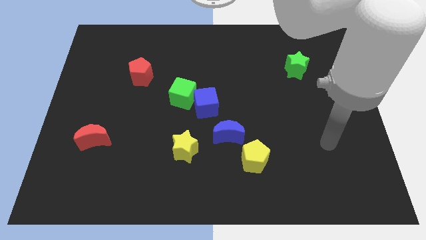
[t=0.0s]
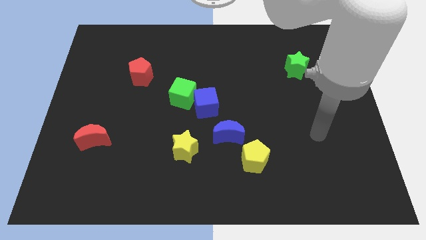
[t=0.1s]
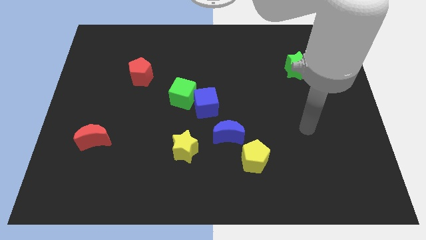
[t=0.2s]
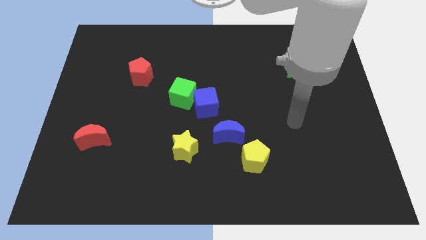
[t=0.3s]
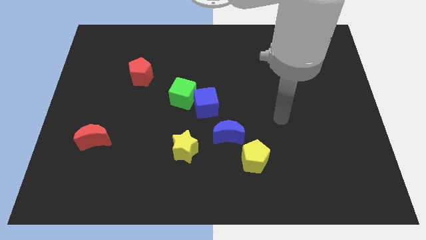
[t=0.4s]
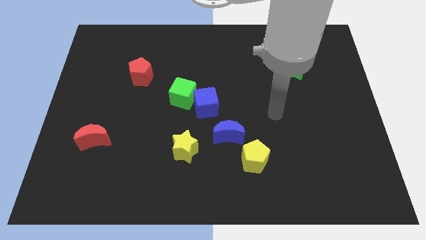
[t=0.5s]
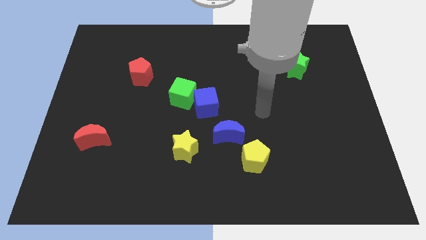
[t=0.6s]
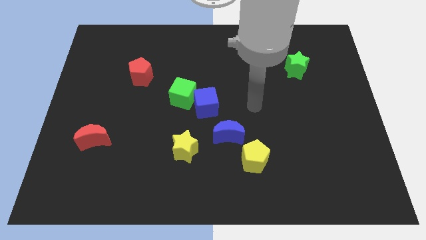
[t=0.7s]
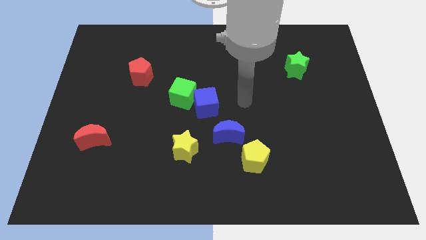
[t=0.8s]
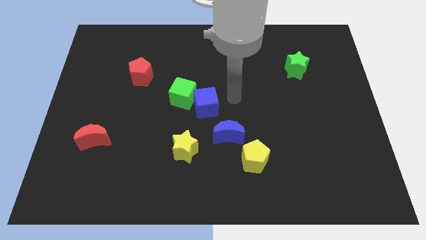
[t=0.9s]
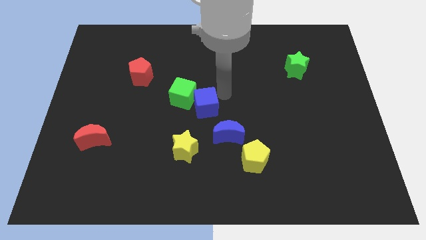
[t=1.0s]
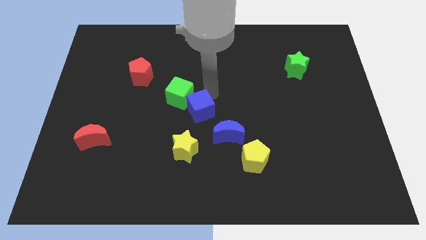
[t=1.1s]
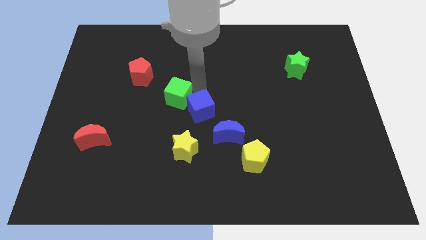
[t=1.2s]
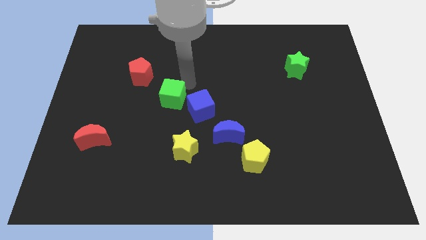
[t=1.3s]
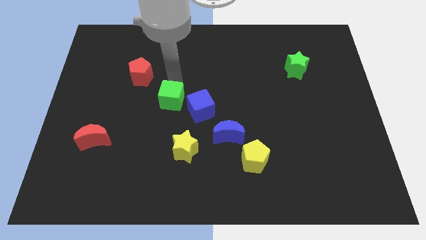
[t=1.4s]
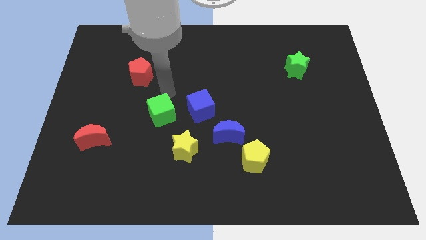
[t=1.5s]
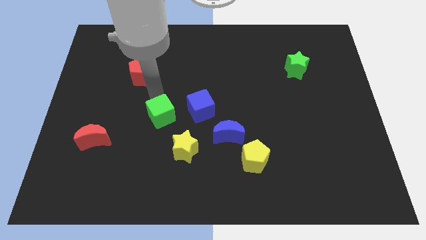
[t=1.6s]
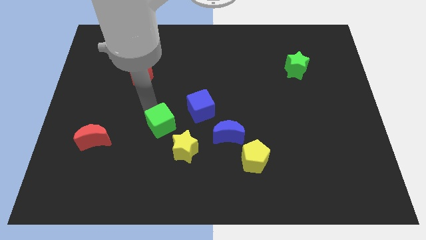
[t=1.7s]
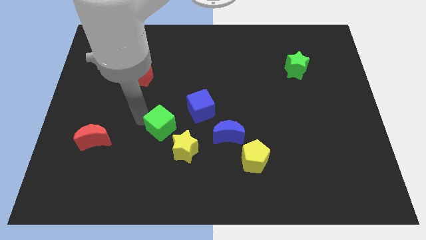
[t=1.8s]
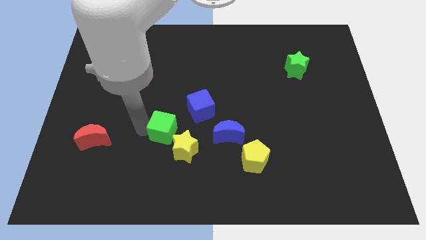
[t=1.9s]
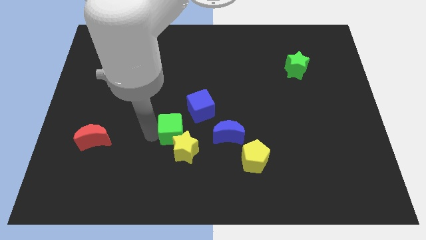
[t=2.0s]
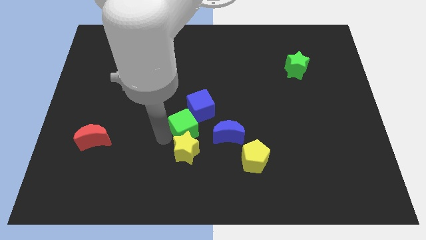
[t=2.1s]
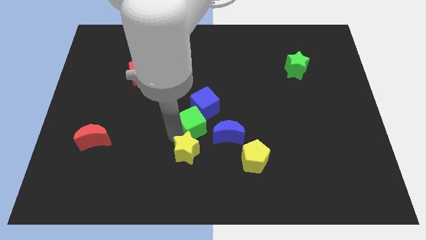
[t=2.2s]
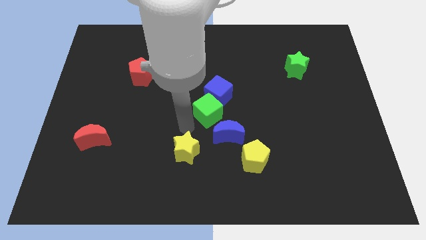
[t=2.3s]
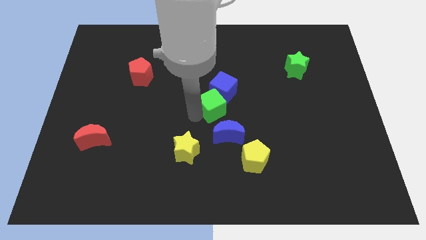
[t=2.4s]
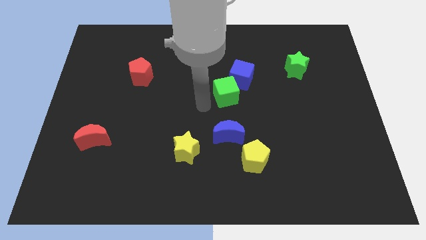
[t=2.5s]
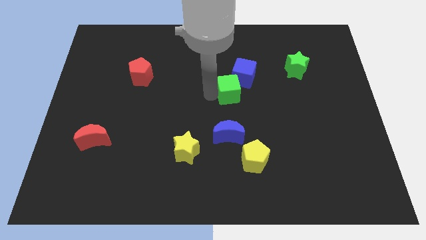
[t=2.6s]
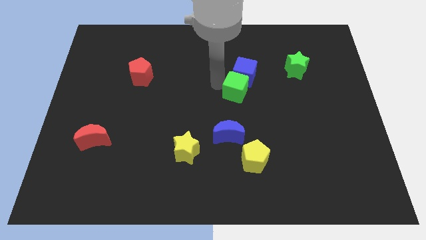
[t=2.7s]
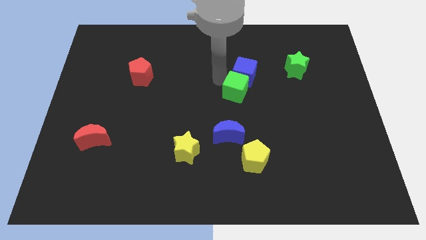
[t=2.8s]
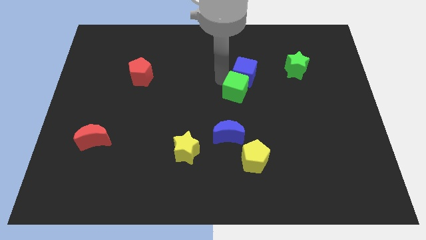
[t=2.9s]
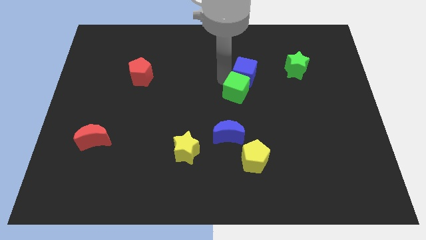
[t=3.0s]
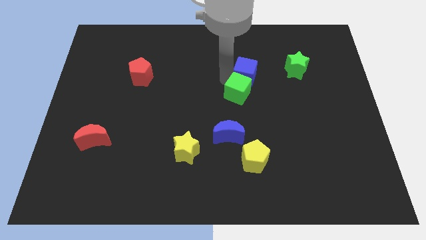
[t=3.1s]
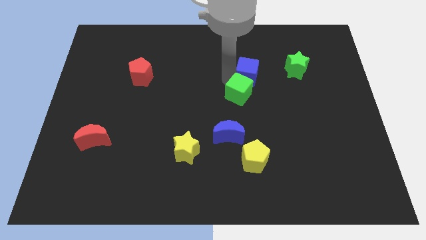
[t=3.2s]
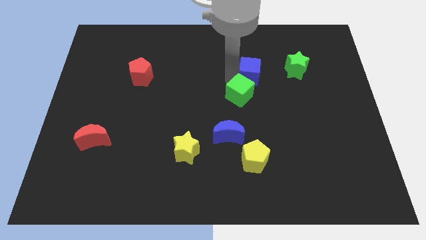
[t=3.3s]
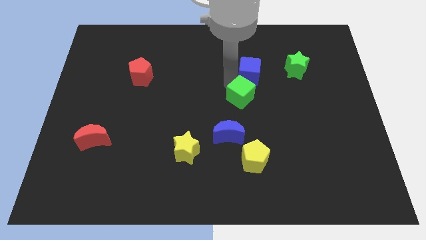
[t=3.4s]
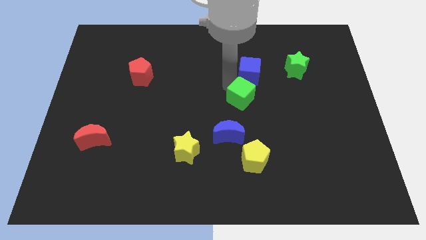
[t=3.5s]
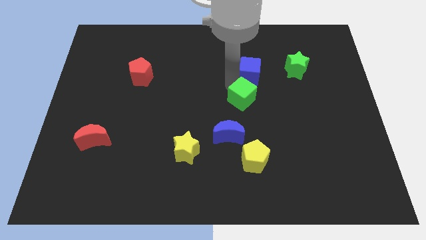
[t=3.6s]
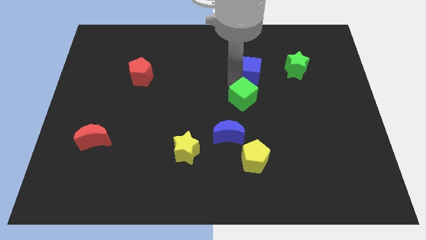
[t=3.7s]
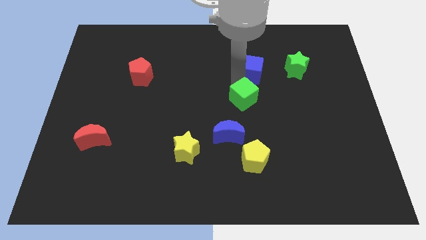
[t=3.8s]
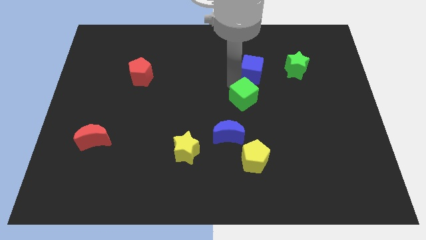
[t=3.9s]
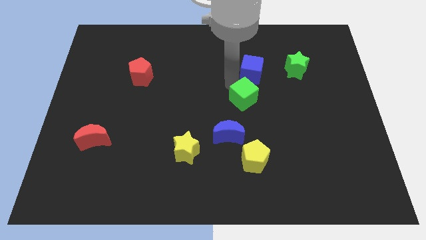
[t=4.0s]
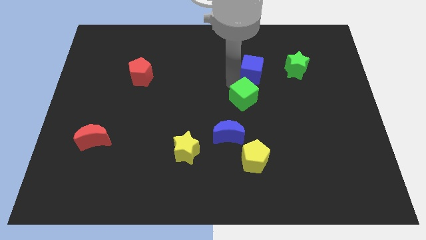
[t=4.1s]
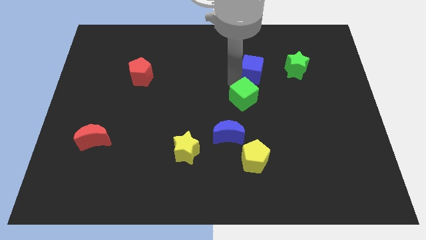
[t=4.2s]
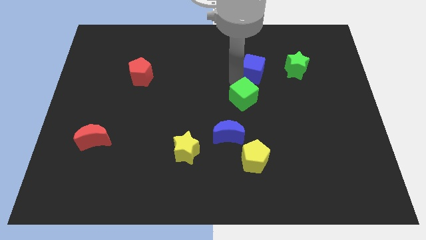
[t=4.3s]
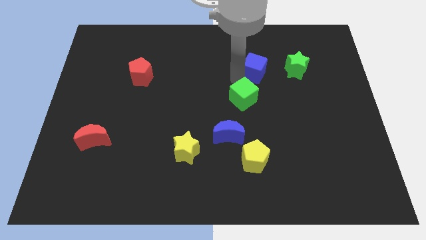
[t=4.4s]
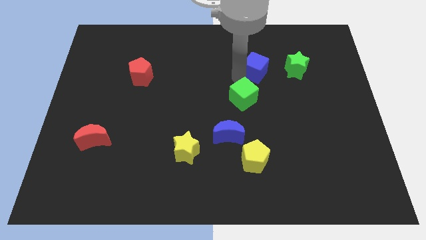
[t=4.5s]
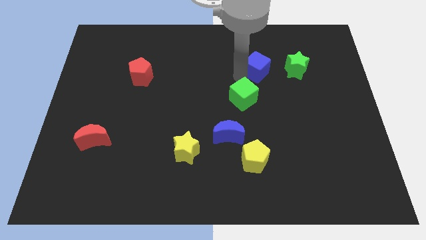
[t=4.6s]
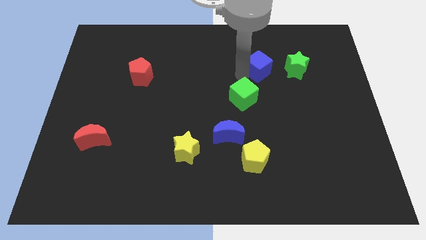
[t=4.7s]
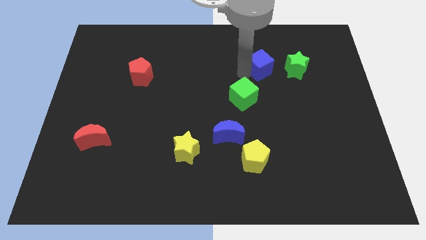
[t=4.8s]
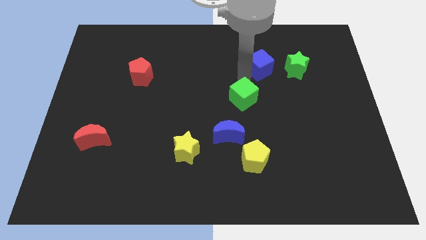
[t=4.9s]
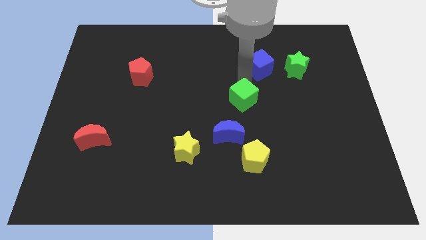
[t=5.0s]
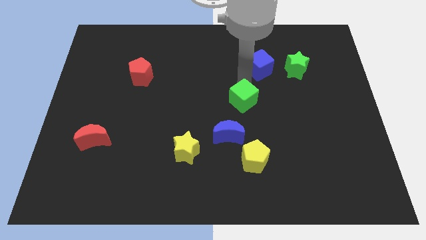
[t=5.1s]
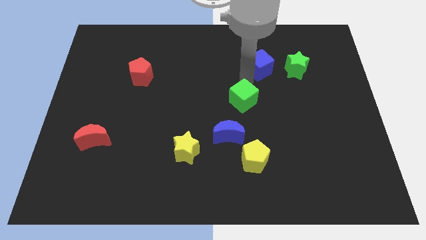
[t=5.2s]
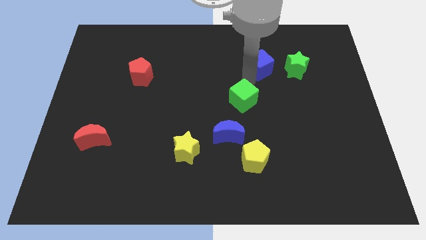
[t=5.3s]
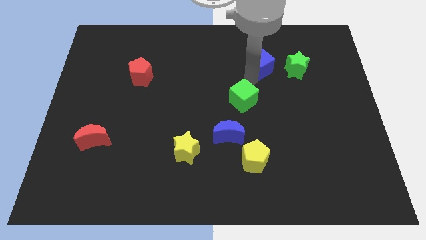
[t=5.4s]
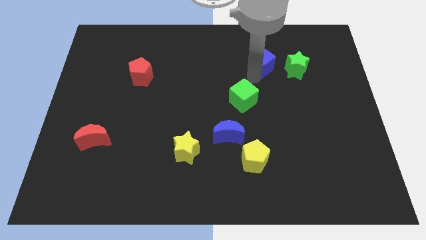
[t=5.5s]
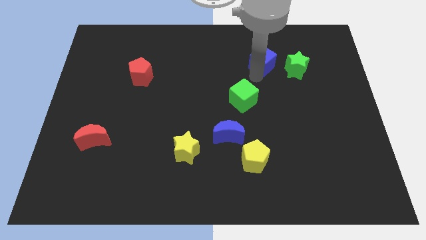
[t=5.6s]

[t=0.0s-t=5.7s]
put the blue cube to the top left of the green star

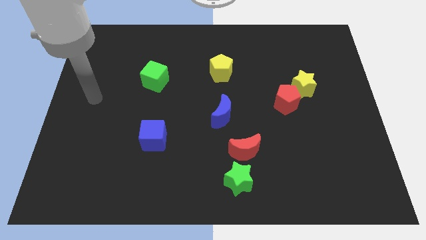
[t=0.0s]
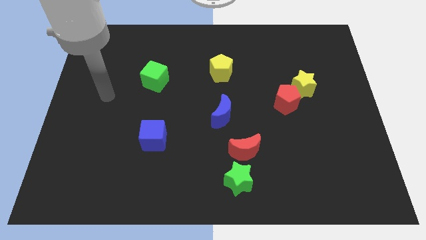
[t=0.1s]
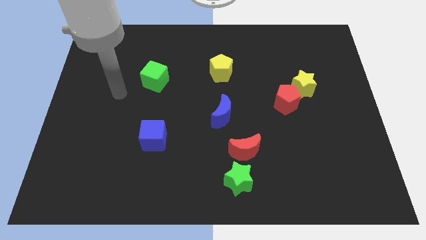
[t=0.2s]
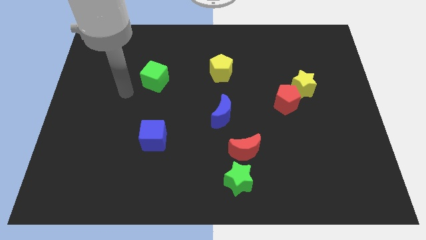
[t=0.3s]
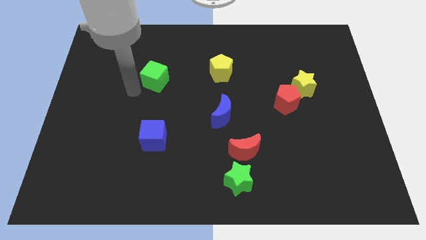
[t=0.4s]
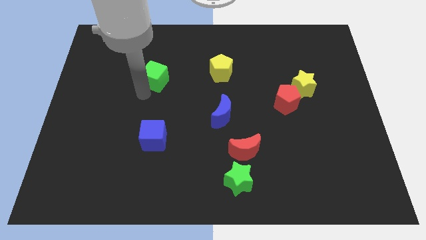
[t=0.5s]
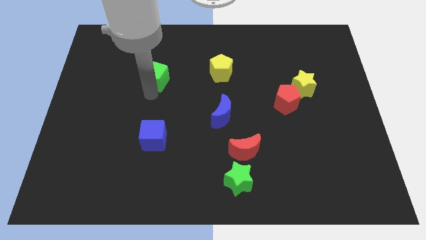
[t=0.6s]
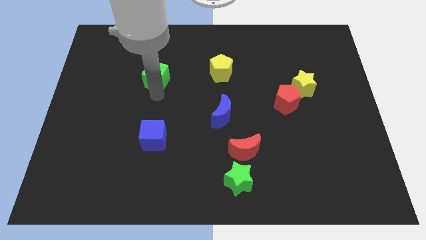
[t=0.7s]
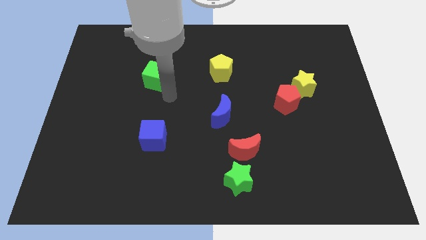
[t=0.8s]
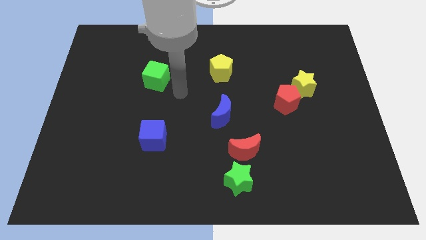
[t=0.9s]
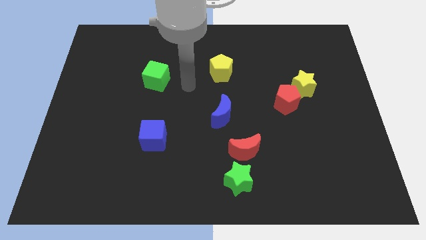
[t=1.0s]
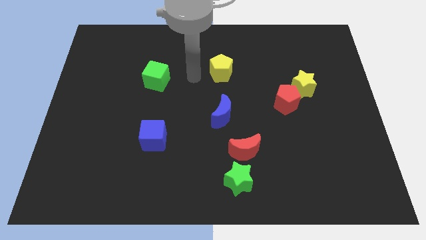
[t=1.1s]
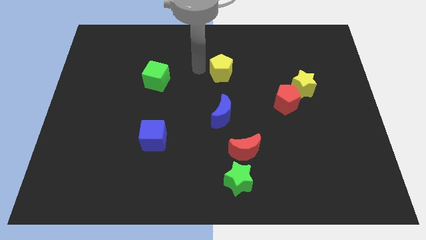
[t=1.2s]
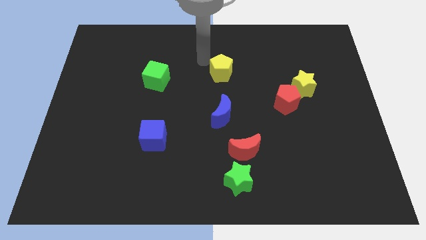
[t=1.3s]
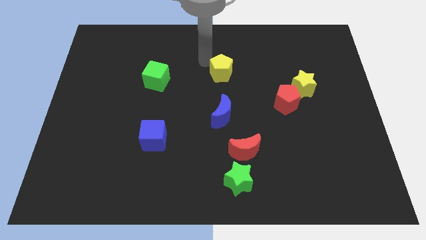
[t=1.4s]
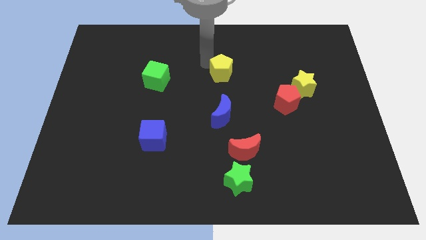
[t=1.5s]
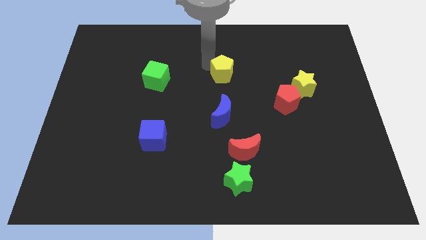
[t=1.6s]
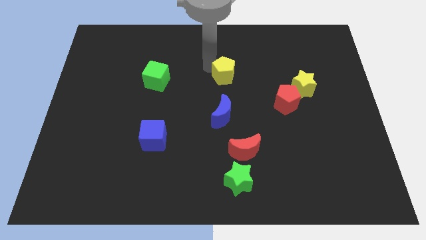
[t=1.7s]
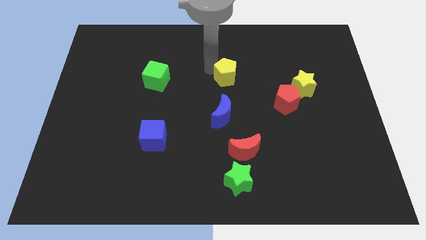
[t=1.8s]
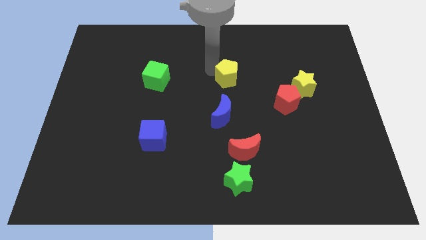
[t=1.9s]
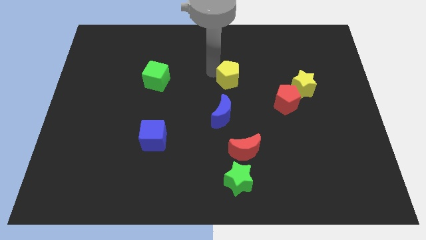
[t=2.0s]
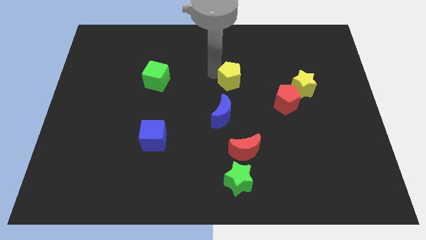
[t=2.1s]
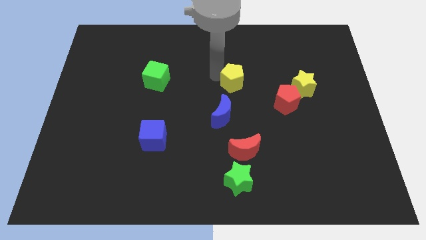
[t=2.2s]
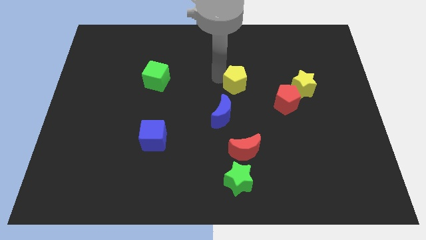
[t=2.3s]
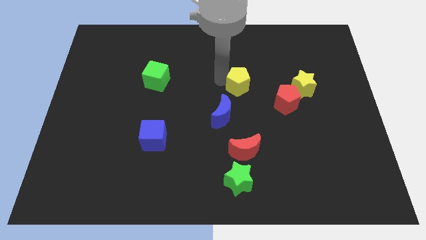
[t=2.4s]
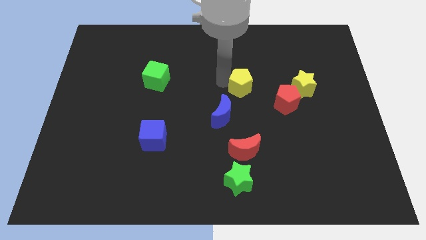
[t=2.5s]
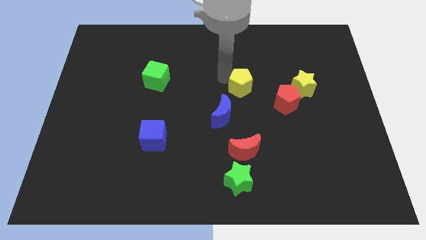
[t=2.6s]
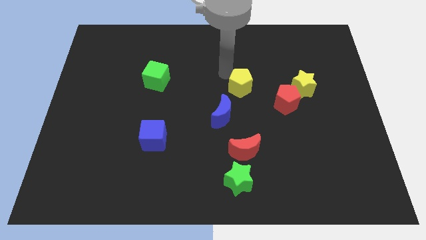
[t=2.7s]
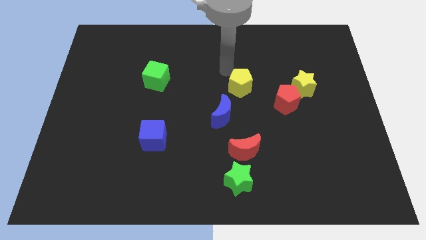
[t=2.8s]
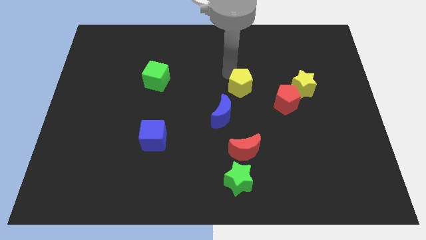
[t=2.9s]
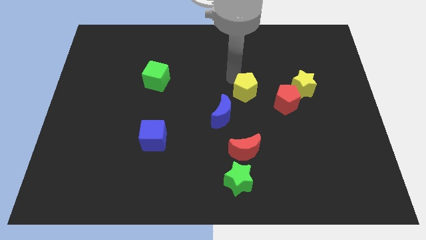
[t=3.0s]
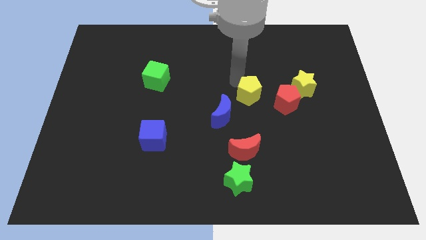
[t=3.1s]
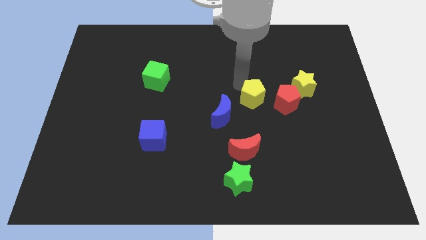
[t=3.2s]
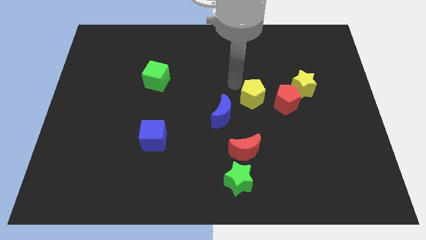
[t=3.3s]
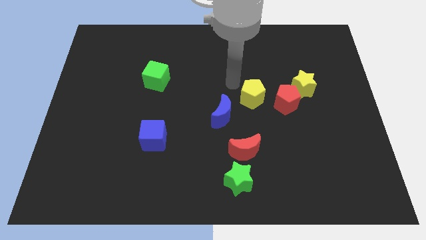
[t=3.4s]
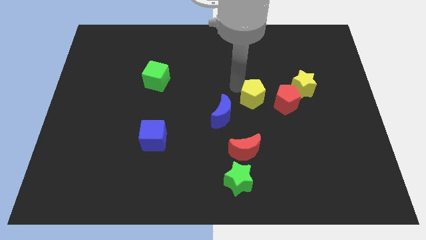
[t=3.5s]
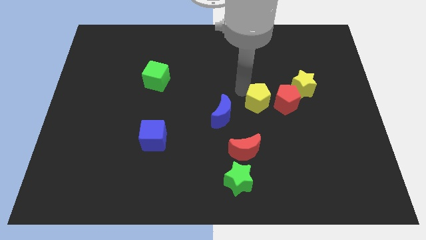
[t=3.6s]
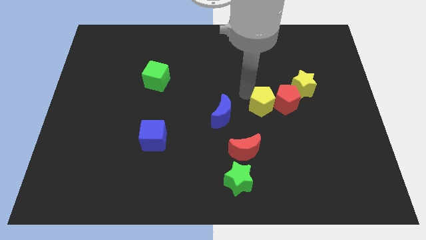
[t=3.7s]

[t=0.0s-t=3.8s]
slide the yellow pentagon to the bottom left of the yellow star
